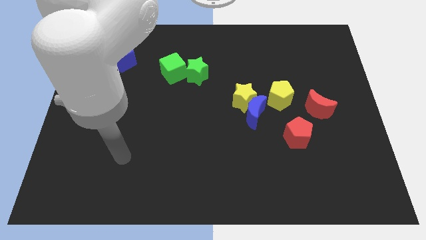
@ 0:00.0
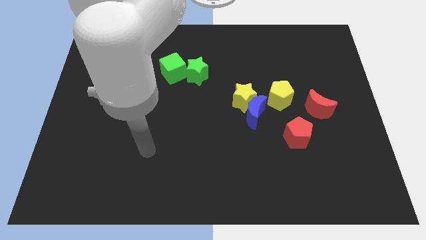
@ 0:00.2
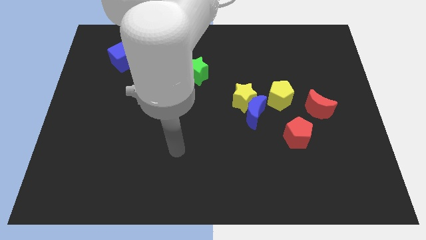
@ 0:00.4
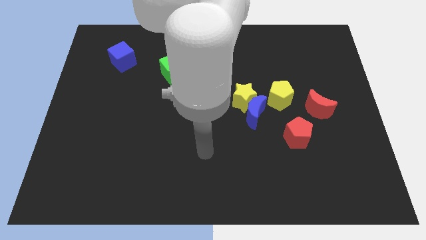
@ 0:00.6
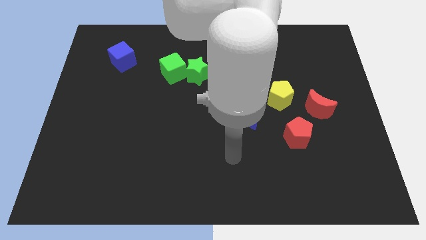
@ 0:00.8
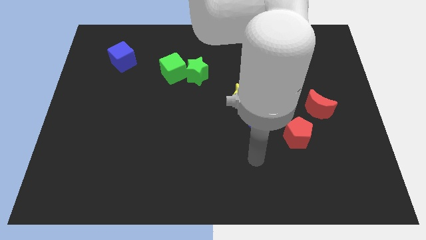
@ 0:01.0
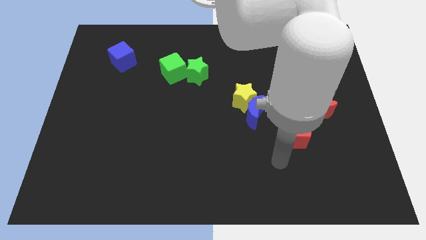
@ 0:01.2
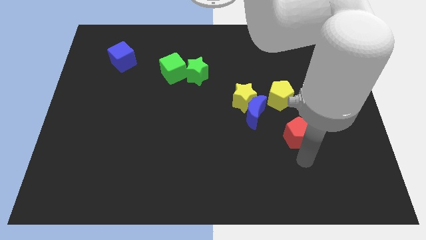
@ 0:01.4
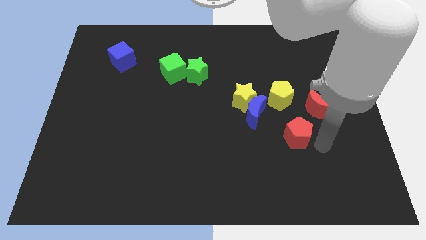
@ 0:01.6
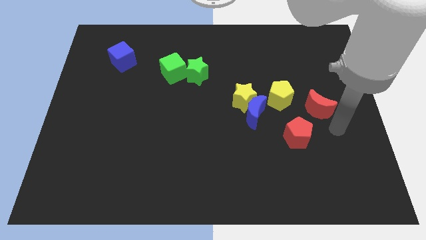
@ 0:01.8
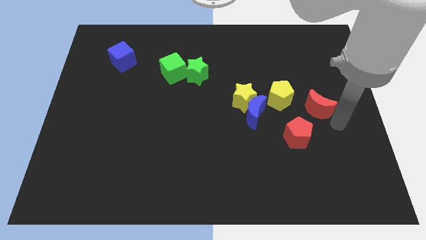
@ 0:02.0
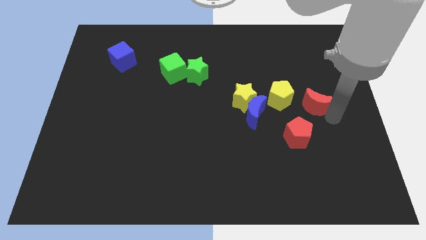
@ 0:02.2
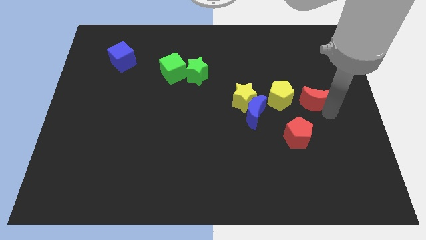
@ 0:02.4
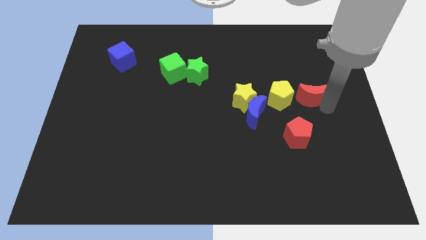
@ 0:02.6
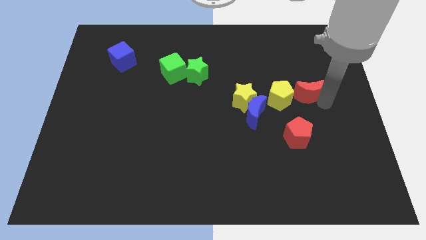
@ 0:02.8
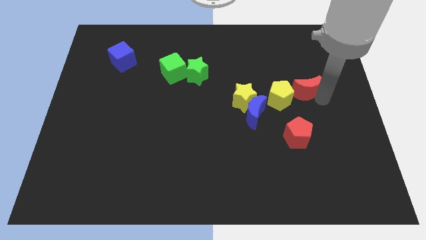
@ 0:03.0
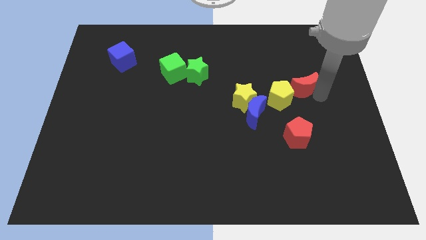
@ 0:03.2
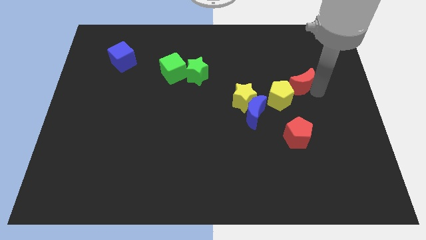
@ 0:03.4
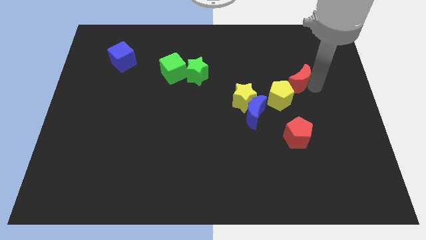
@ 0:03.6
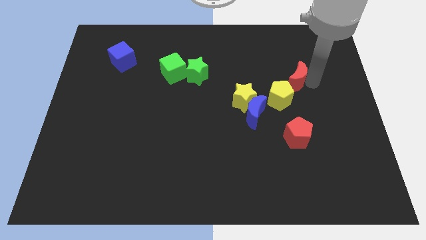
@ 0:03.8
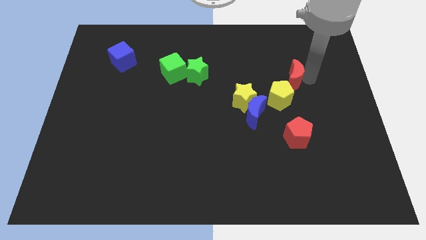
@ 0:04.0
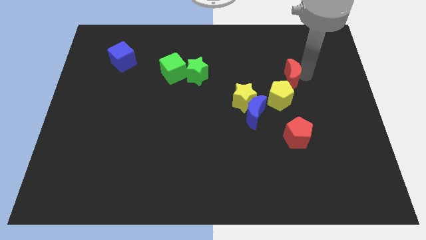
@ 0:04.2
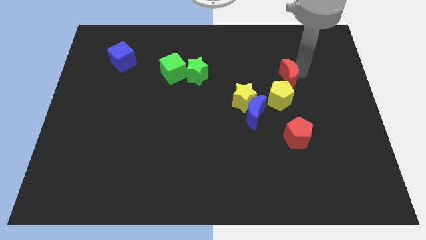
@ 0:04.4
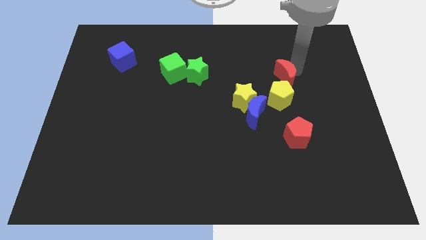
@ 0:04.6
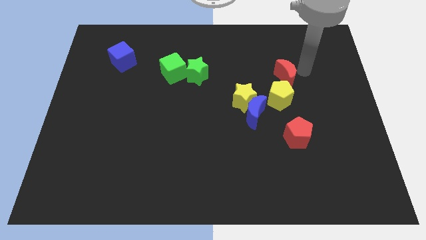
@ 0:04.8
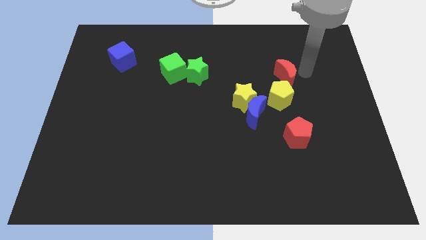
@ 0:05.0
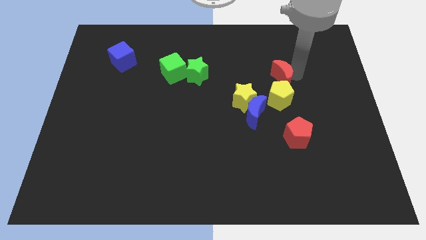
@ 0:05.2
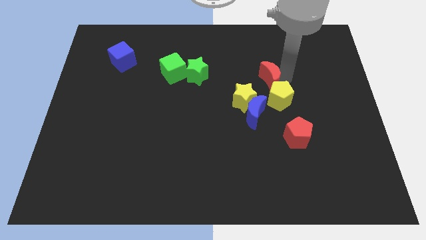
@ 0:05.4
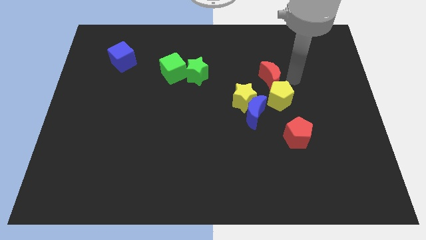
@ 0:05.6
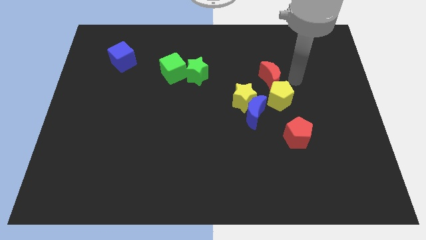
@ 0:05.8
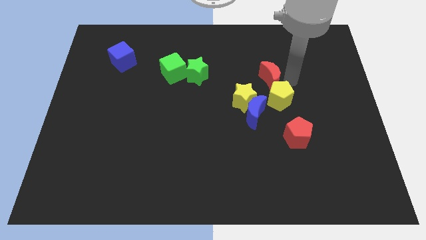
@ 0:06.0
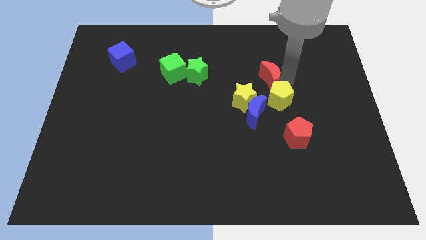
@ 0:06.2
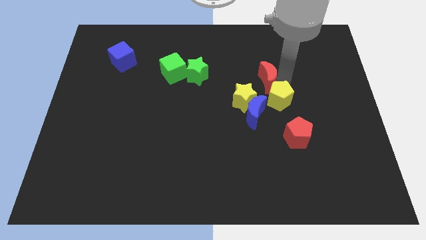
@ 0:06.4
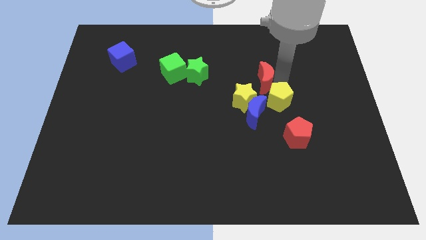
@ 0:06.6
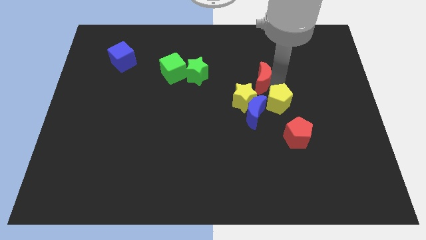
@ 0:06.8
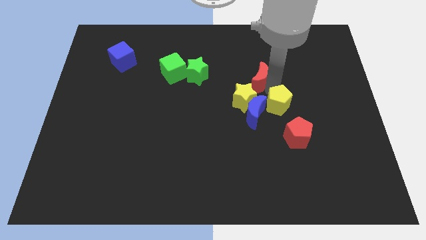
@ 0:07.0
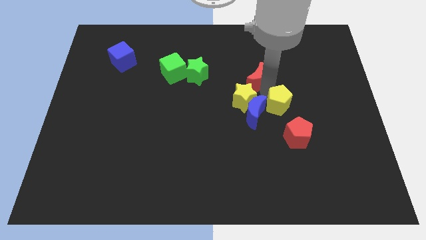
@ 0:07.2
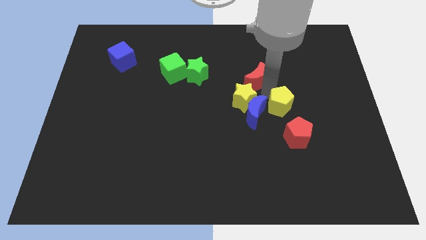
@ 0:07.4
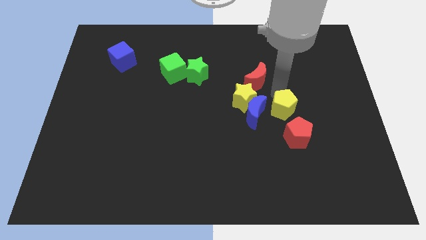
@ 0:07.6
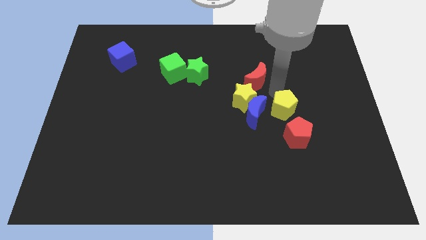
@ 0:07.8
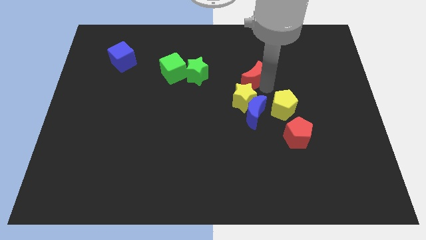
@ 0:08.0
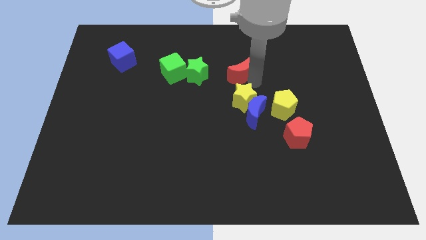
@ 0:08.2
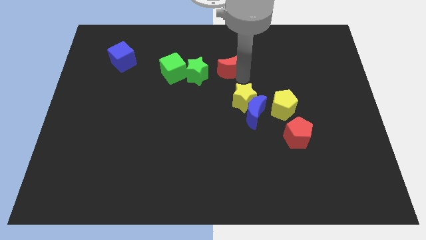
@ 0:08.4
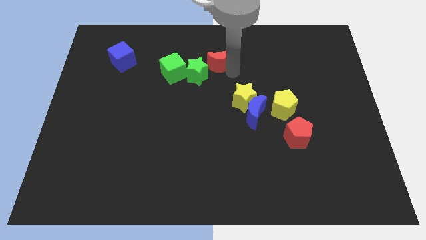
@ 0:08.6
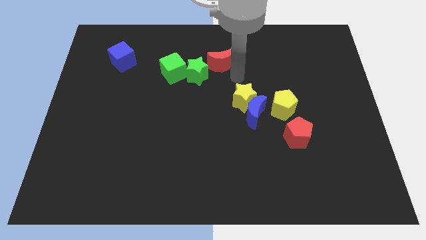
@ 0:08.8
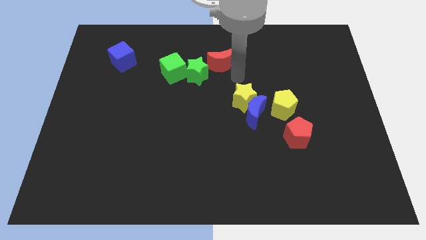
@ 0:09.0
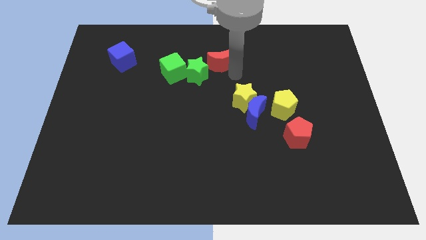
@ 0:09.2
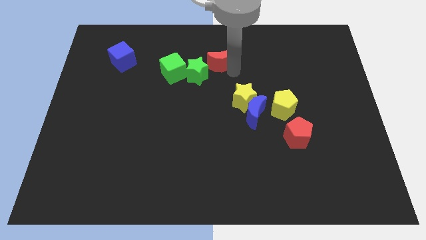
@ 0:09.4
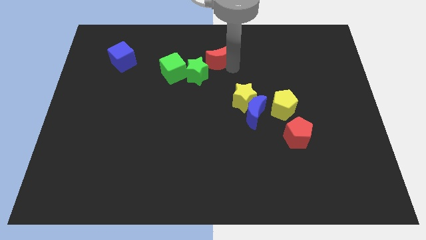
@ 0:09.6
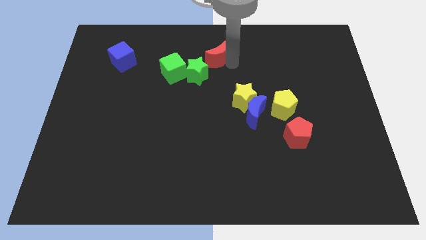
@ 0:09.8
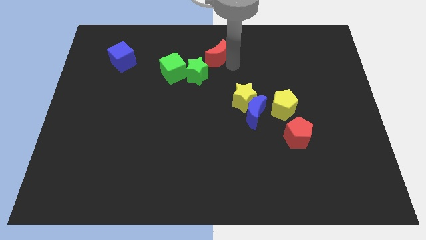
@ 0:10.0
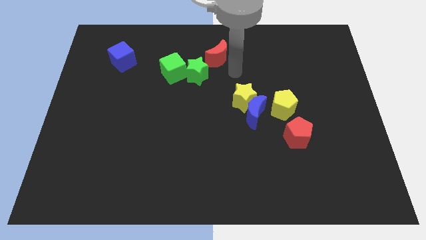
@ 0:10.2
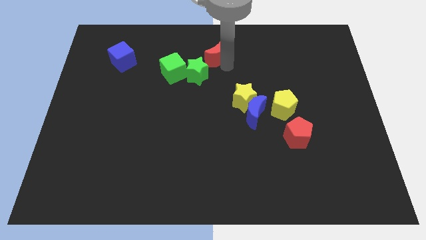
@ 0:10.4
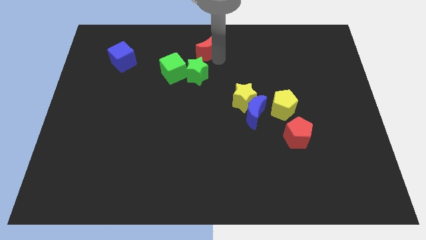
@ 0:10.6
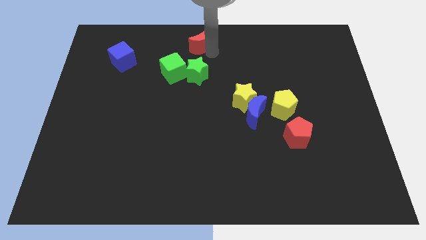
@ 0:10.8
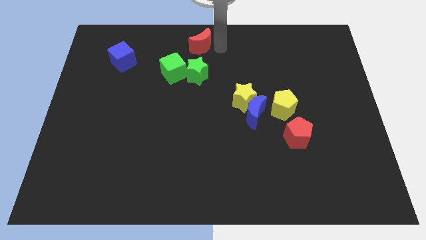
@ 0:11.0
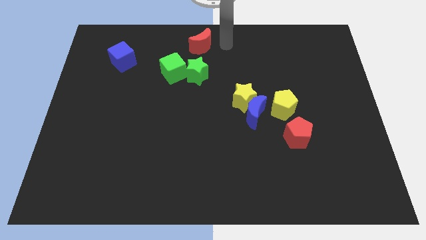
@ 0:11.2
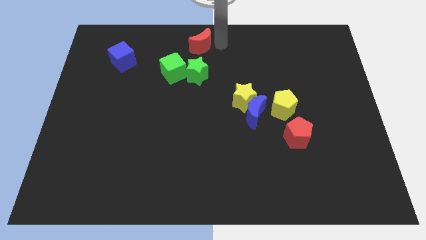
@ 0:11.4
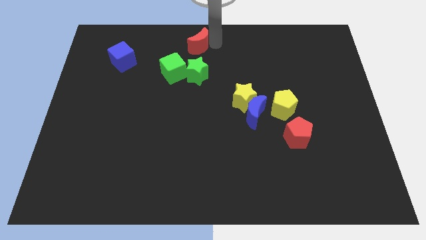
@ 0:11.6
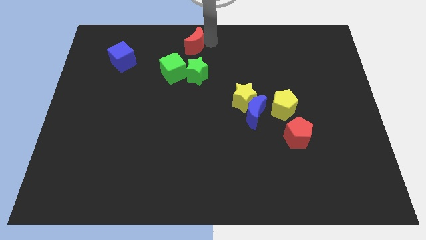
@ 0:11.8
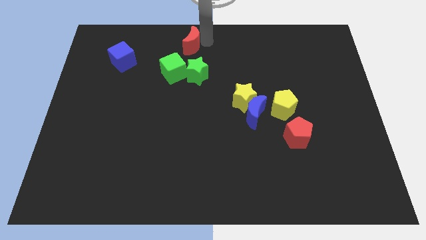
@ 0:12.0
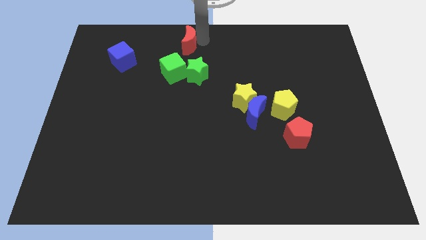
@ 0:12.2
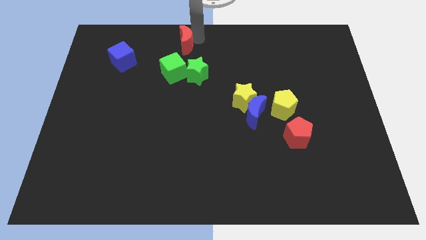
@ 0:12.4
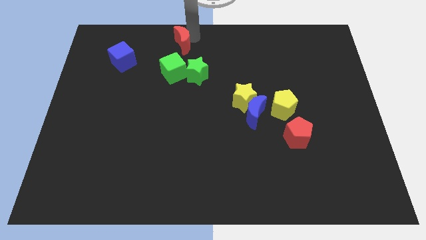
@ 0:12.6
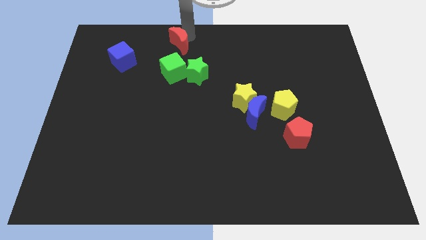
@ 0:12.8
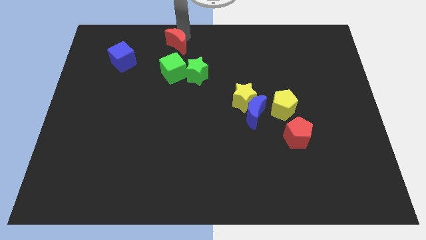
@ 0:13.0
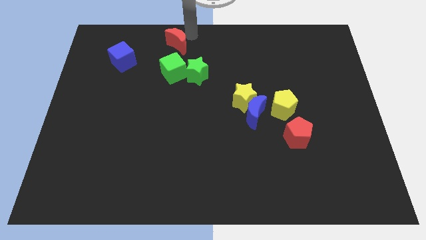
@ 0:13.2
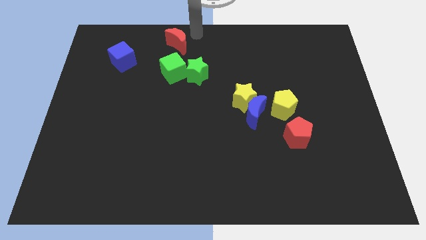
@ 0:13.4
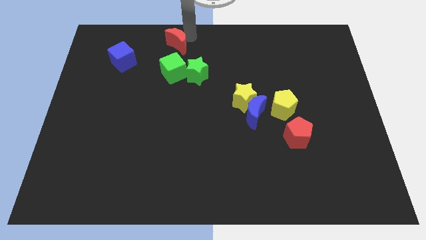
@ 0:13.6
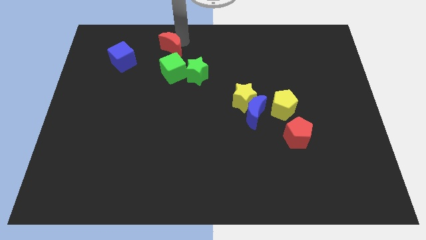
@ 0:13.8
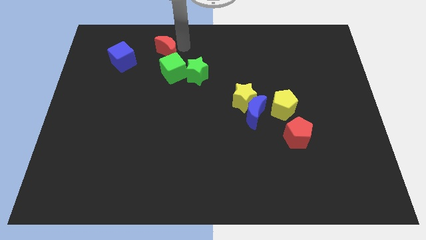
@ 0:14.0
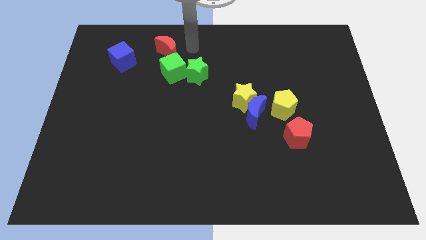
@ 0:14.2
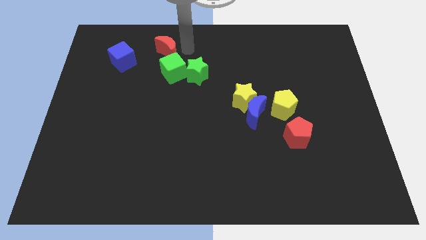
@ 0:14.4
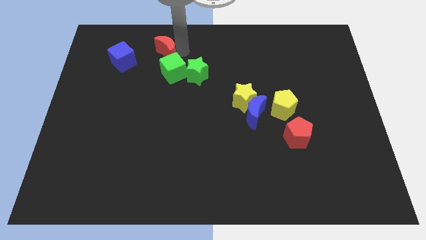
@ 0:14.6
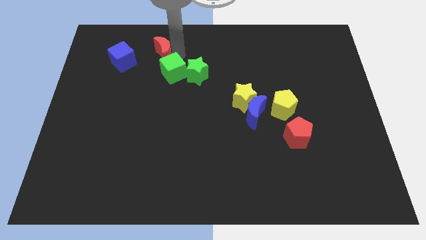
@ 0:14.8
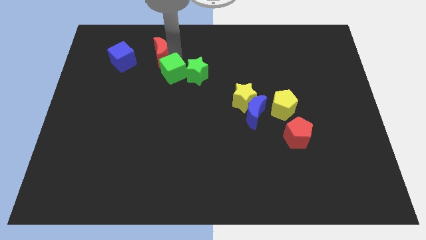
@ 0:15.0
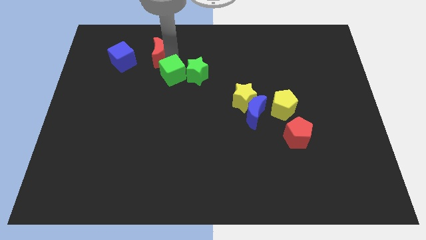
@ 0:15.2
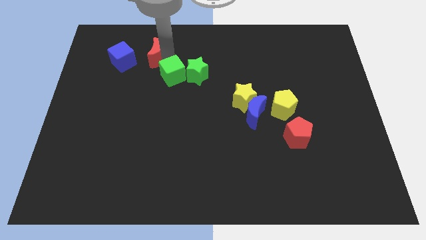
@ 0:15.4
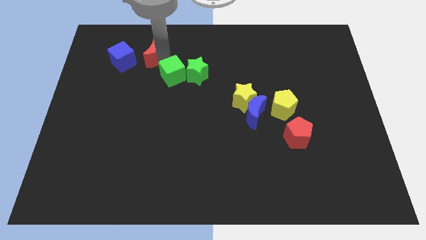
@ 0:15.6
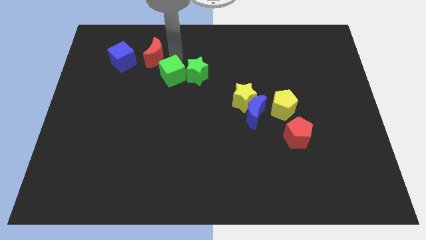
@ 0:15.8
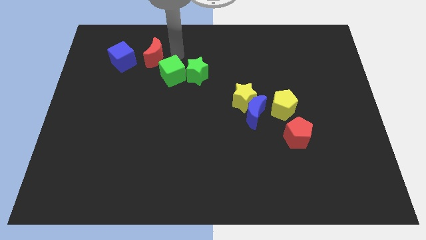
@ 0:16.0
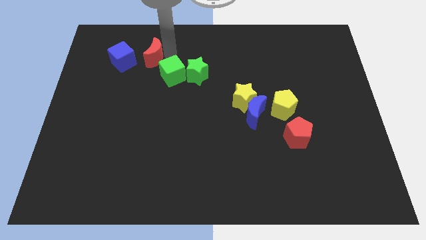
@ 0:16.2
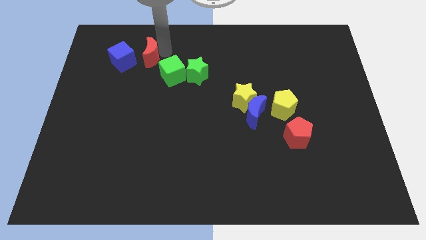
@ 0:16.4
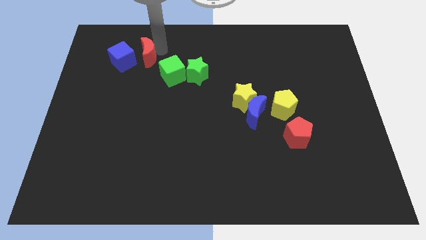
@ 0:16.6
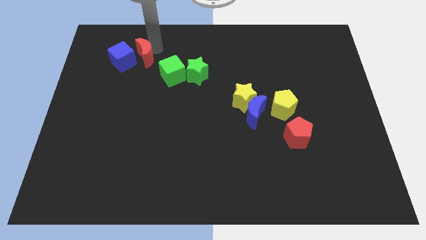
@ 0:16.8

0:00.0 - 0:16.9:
move the red moon close to the blue cube
